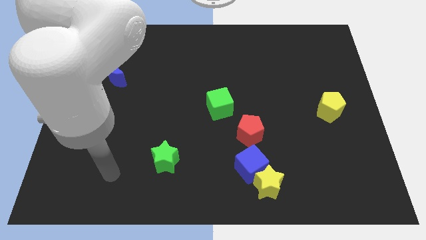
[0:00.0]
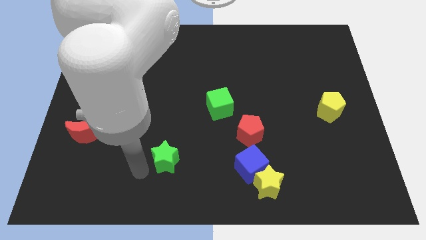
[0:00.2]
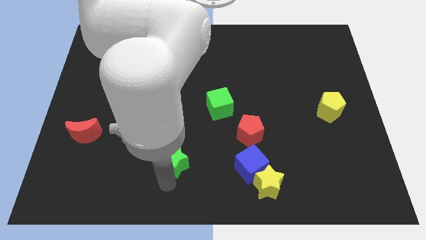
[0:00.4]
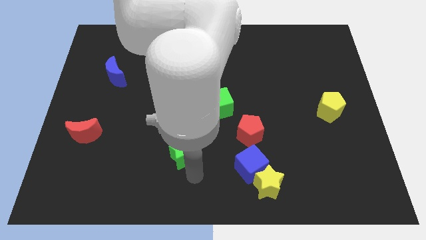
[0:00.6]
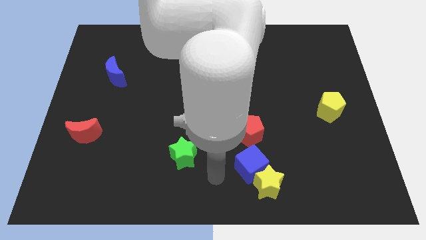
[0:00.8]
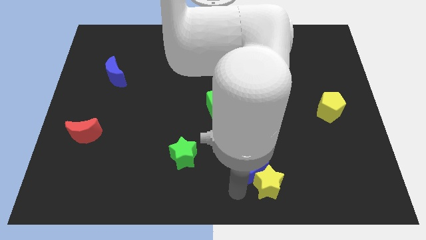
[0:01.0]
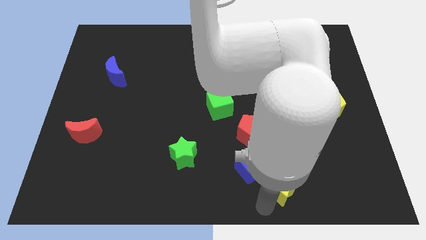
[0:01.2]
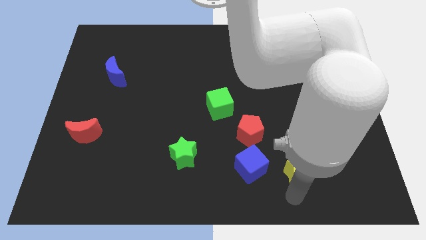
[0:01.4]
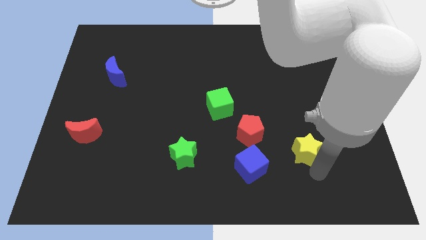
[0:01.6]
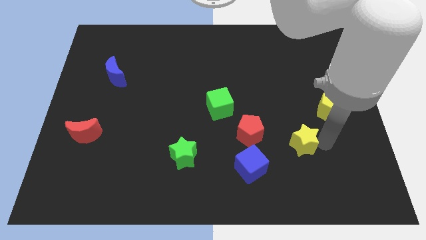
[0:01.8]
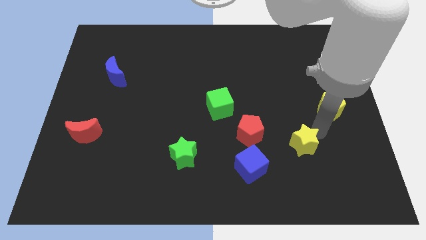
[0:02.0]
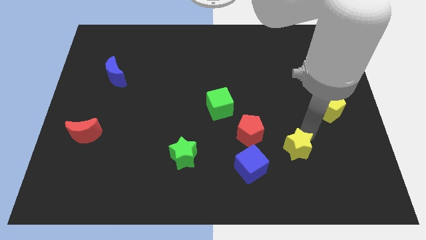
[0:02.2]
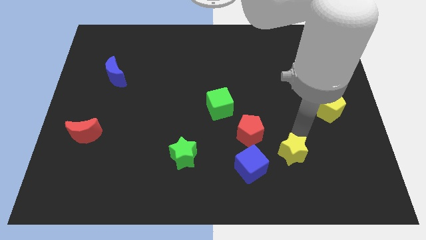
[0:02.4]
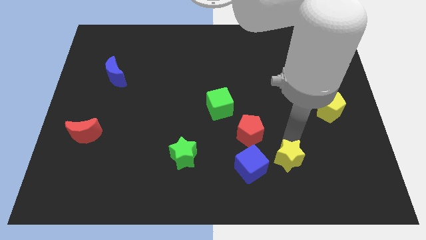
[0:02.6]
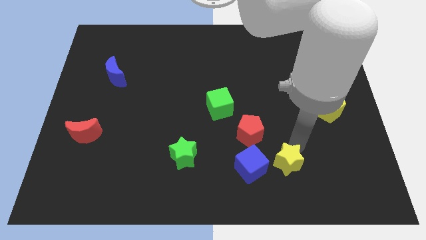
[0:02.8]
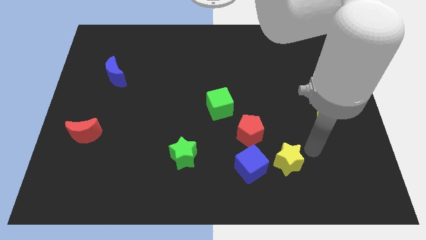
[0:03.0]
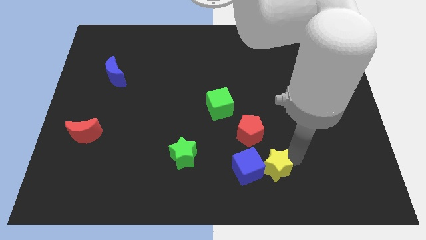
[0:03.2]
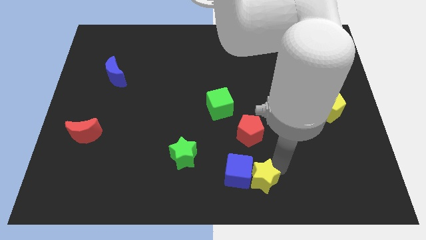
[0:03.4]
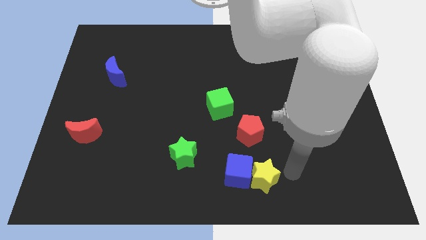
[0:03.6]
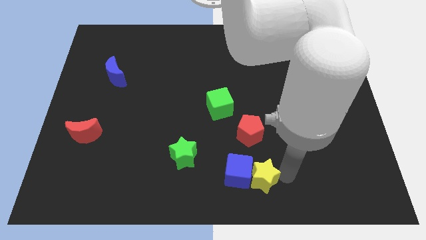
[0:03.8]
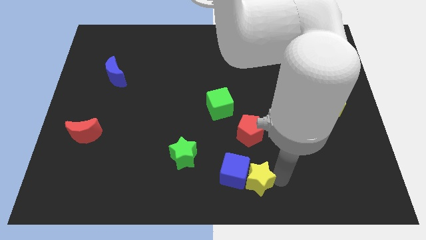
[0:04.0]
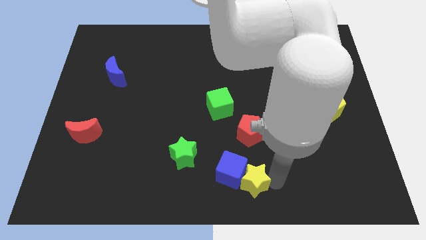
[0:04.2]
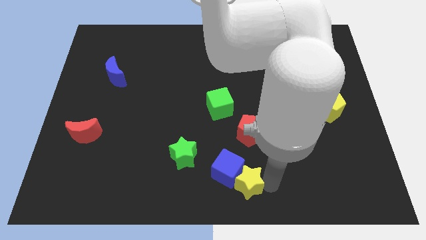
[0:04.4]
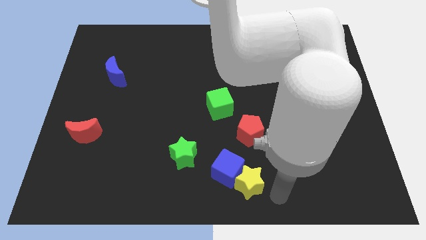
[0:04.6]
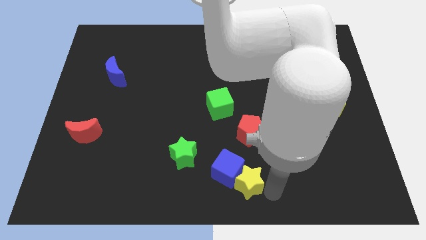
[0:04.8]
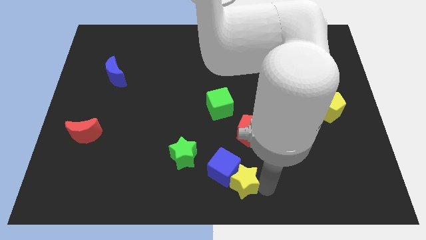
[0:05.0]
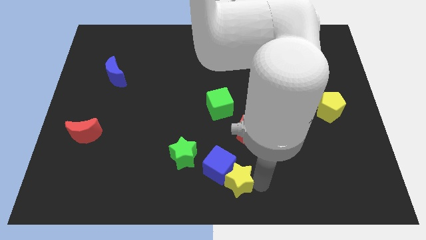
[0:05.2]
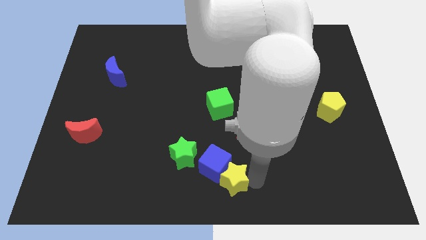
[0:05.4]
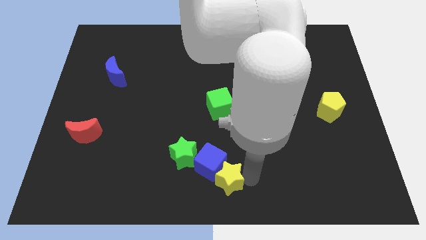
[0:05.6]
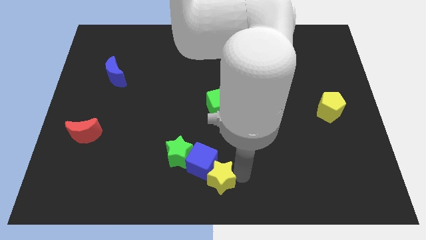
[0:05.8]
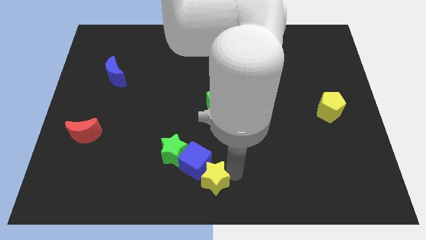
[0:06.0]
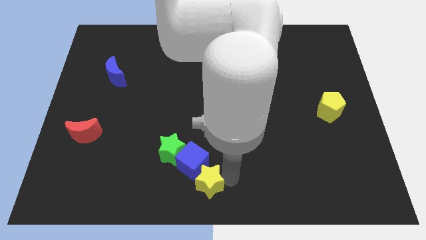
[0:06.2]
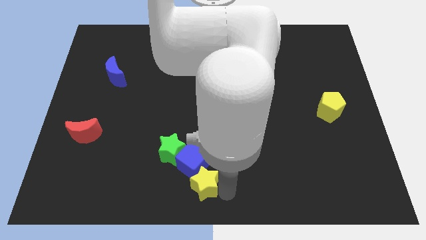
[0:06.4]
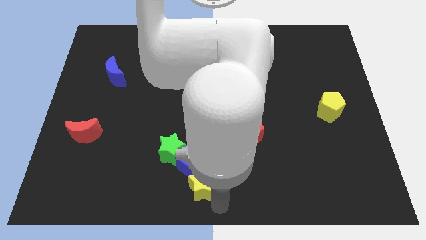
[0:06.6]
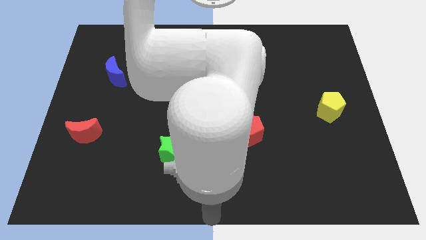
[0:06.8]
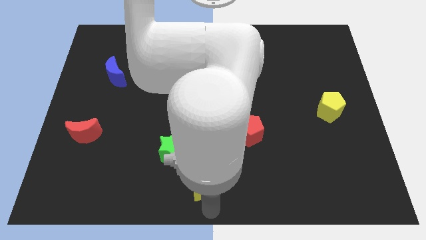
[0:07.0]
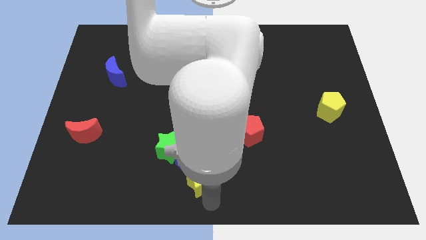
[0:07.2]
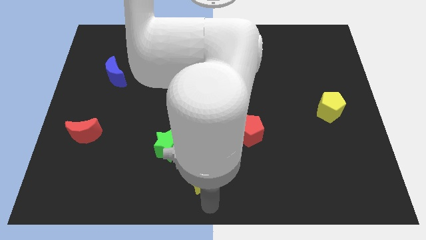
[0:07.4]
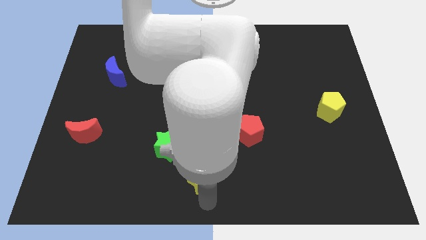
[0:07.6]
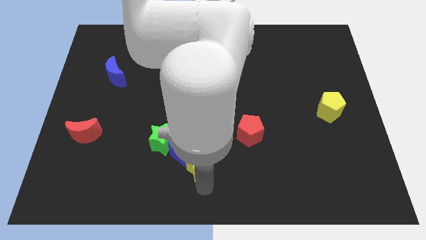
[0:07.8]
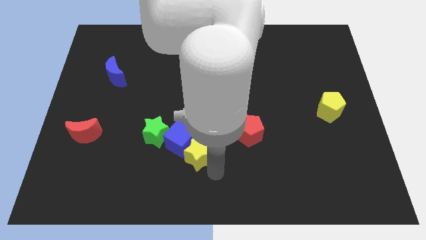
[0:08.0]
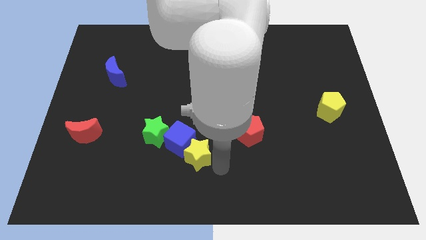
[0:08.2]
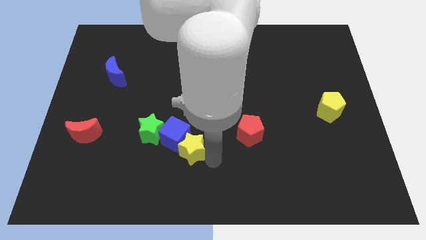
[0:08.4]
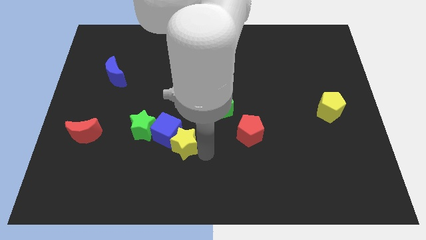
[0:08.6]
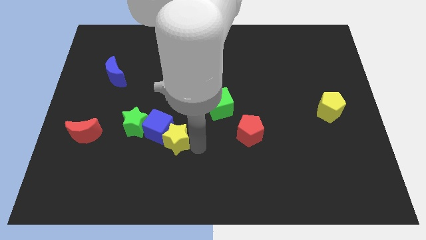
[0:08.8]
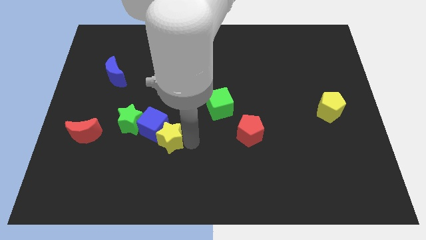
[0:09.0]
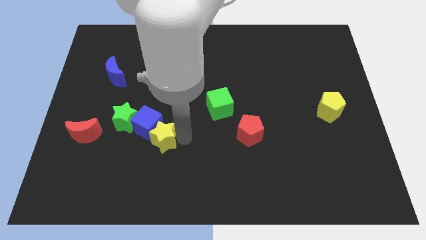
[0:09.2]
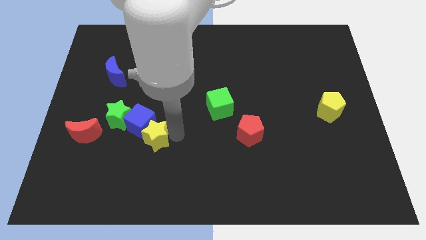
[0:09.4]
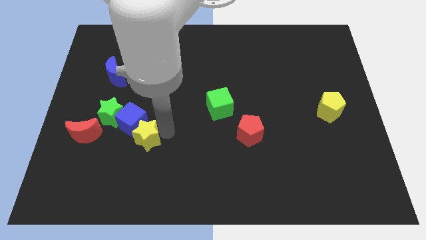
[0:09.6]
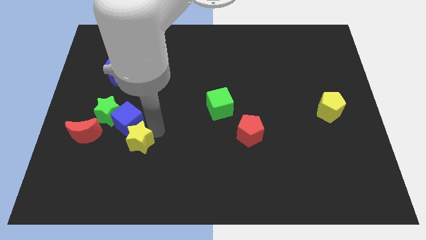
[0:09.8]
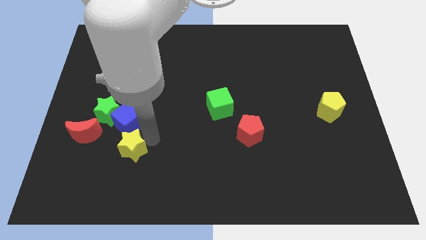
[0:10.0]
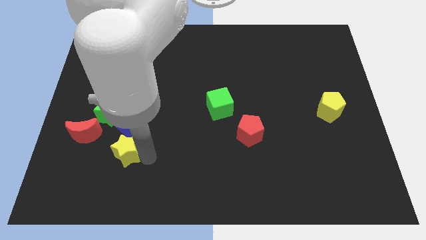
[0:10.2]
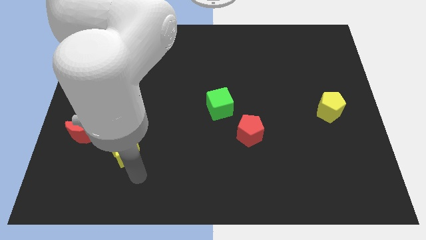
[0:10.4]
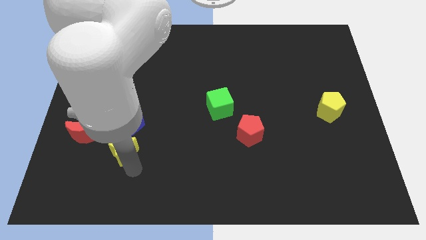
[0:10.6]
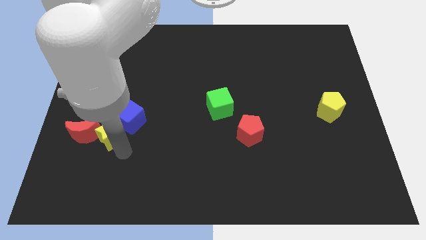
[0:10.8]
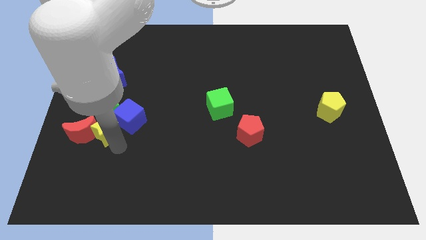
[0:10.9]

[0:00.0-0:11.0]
put the yellow star next to the green star
